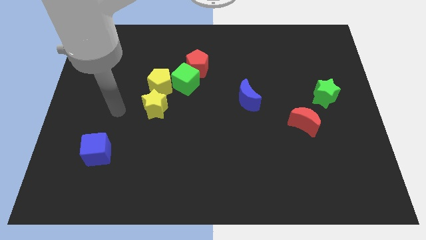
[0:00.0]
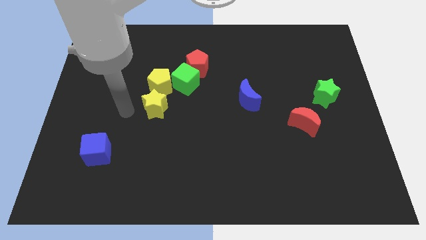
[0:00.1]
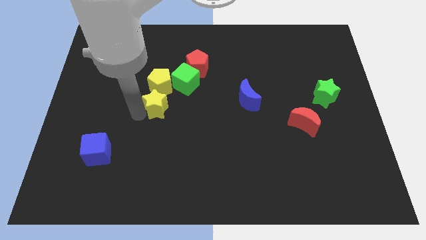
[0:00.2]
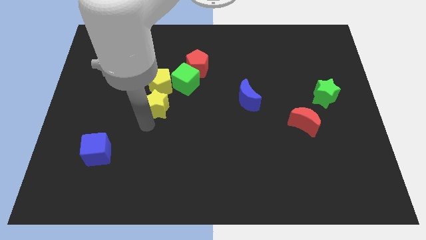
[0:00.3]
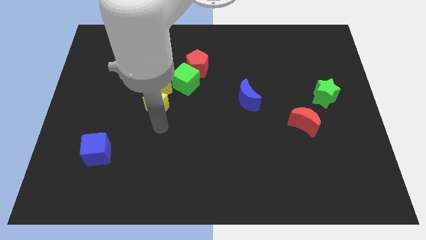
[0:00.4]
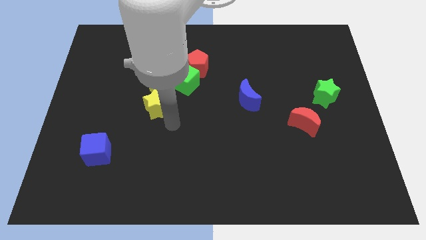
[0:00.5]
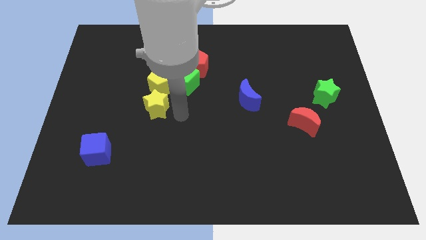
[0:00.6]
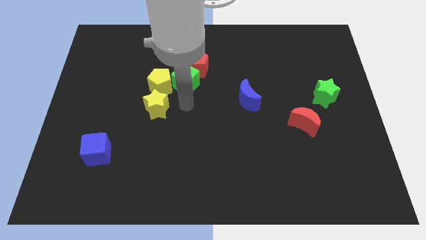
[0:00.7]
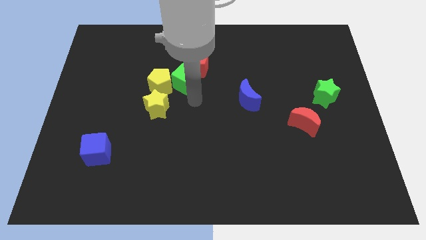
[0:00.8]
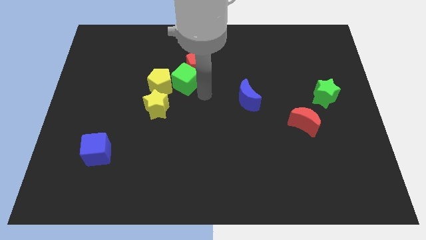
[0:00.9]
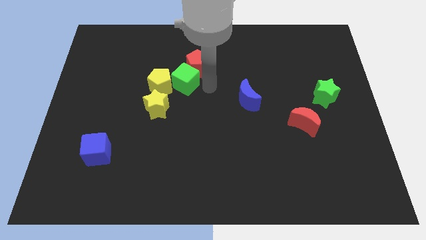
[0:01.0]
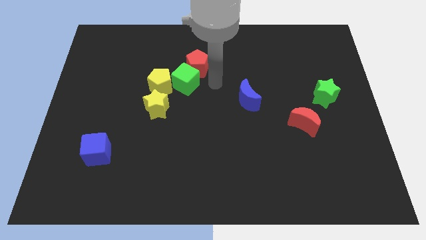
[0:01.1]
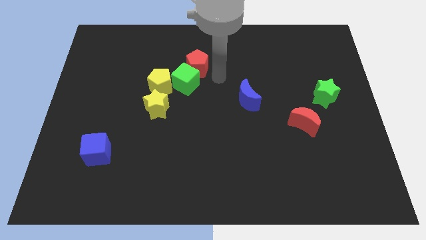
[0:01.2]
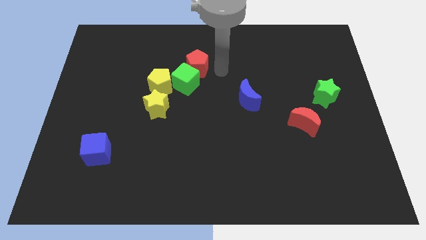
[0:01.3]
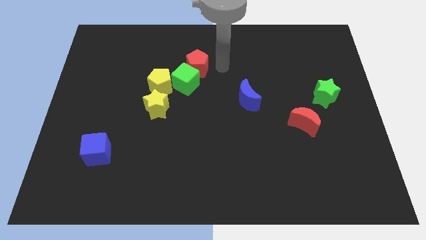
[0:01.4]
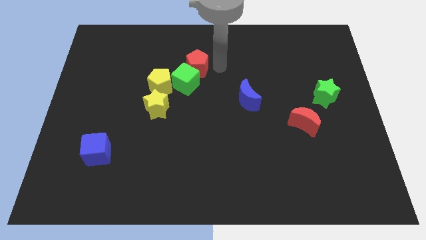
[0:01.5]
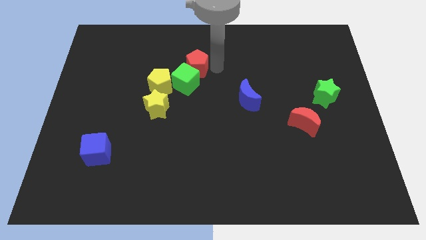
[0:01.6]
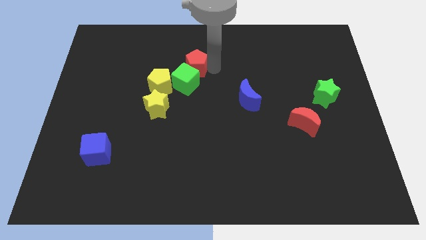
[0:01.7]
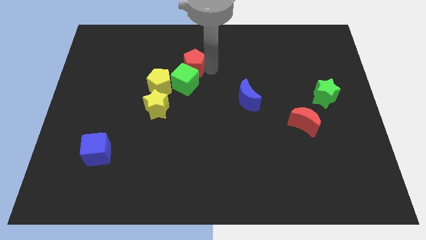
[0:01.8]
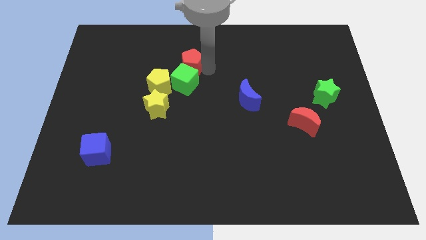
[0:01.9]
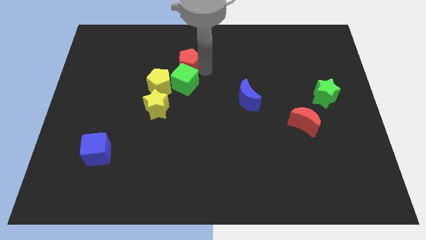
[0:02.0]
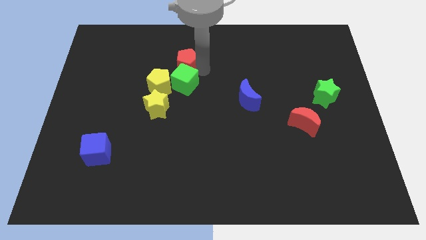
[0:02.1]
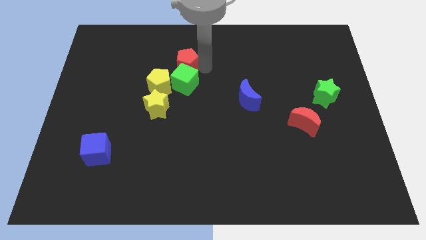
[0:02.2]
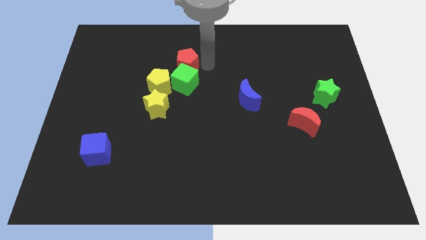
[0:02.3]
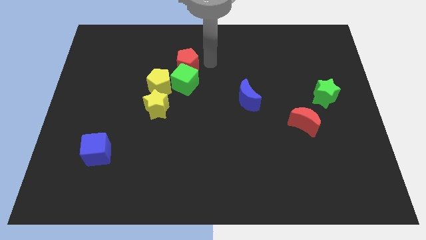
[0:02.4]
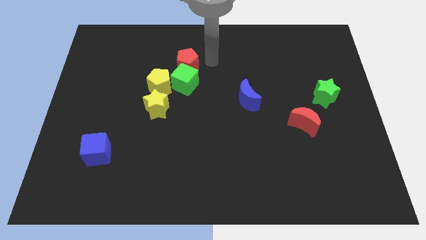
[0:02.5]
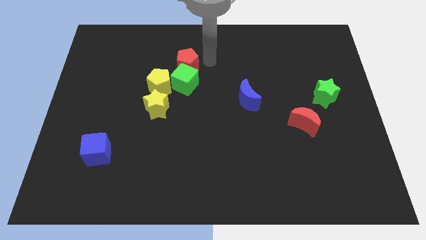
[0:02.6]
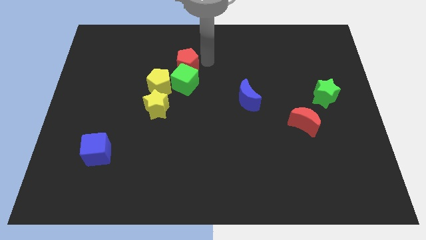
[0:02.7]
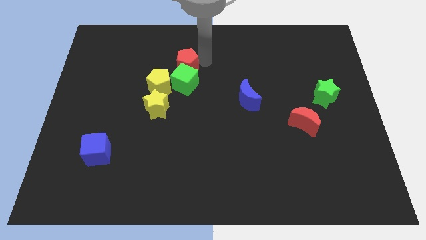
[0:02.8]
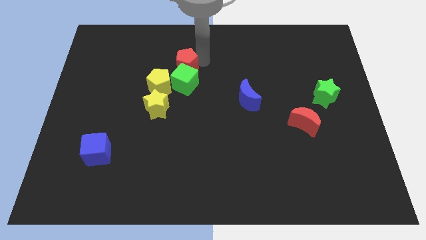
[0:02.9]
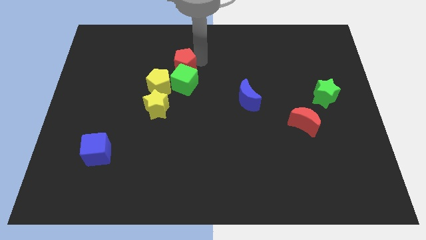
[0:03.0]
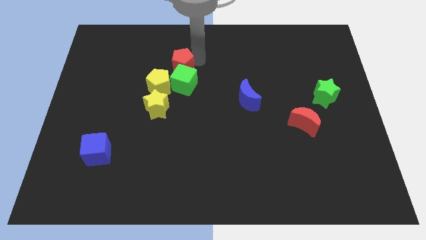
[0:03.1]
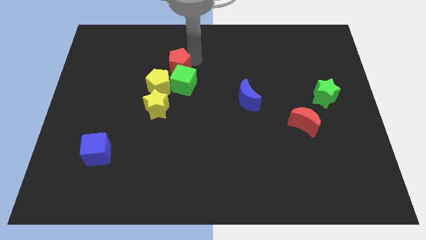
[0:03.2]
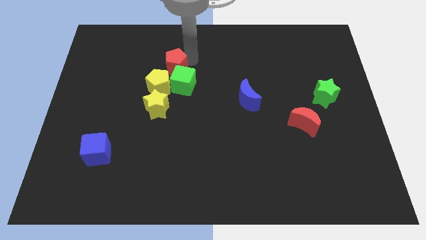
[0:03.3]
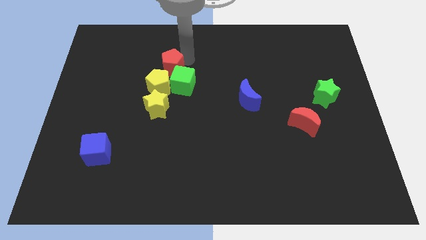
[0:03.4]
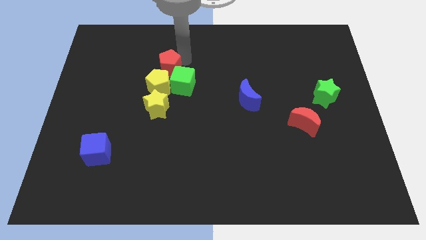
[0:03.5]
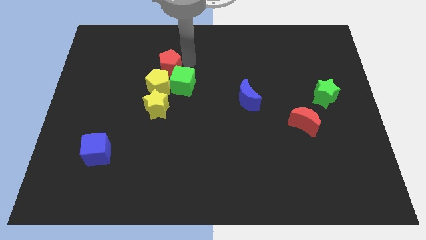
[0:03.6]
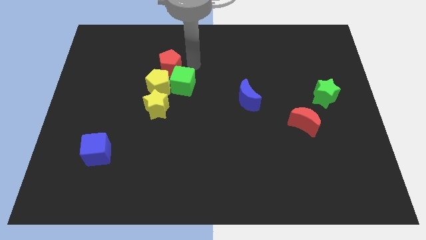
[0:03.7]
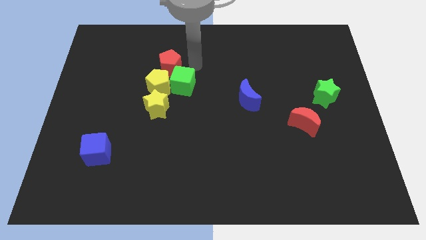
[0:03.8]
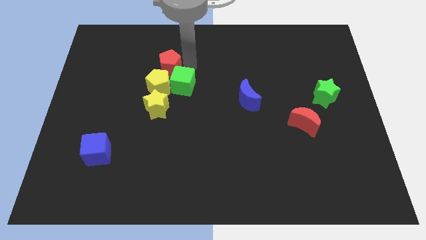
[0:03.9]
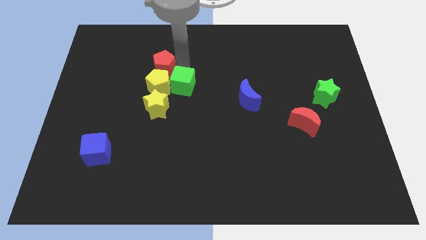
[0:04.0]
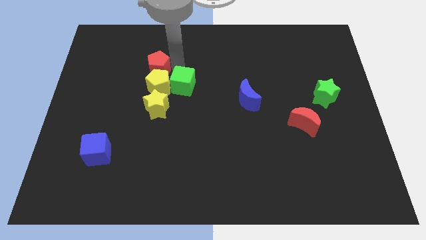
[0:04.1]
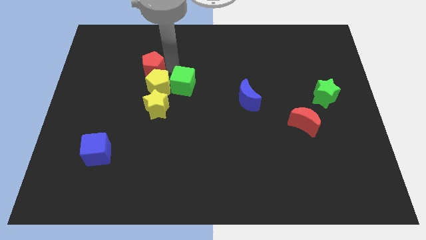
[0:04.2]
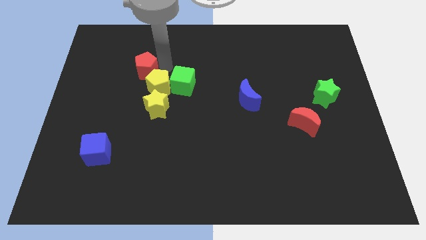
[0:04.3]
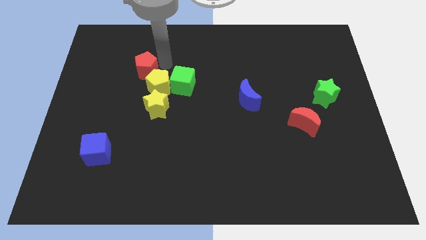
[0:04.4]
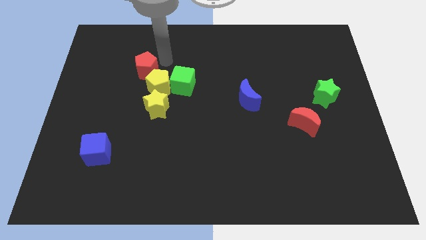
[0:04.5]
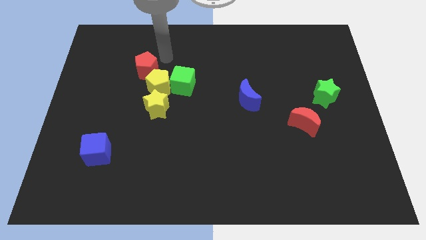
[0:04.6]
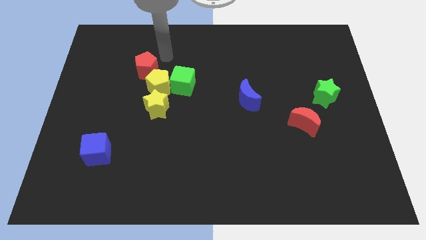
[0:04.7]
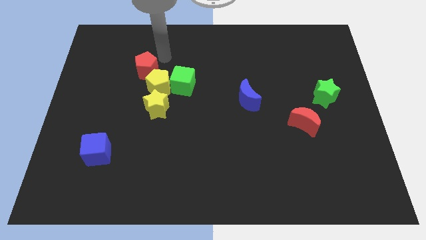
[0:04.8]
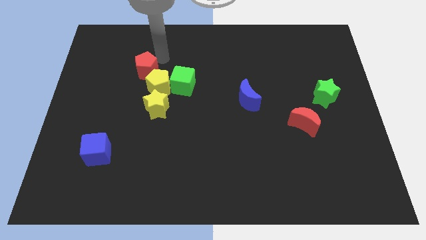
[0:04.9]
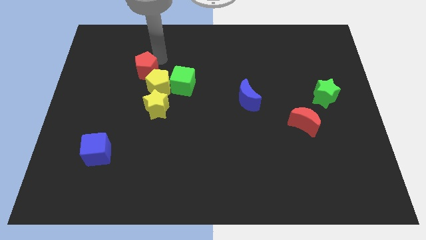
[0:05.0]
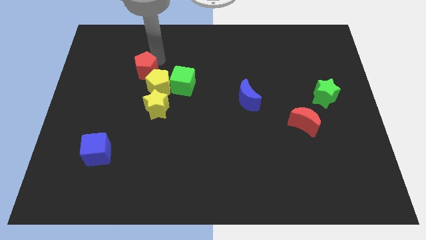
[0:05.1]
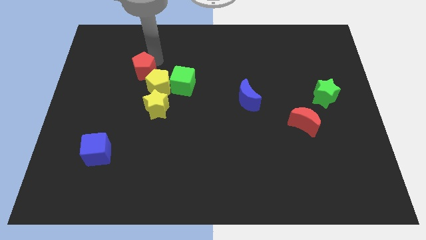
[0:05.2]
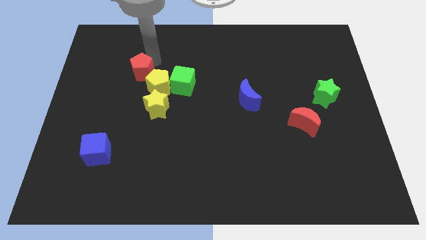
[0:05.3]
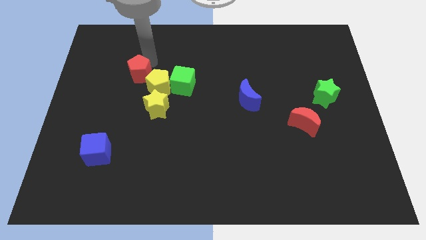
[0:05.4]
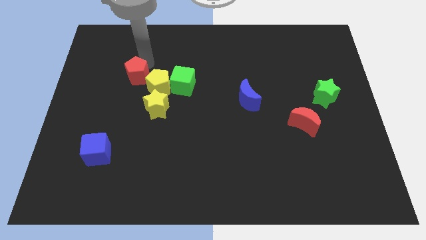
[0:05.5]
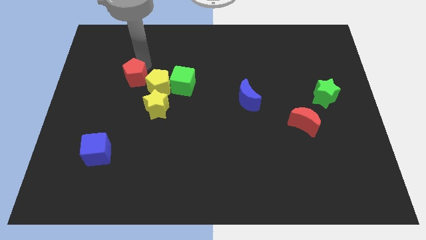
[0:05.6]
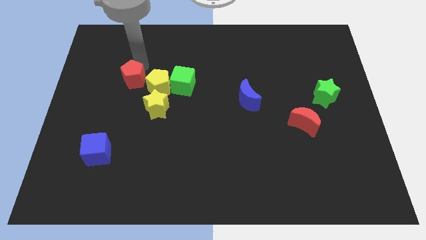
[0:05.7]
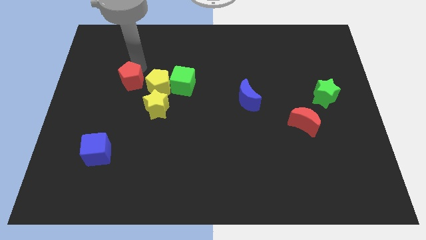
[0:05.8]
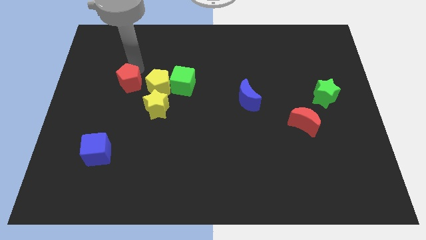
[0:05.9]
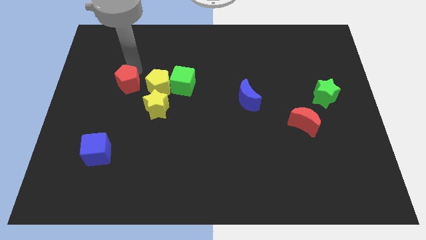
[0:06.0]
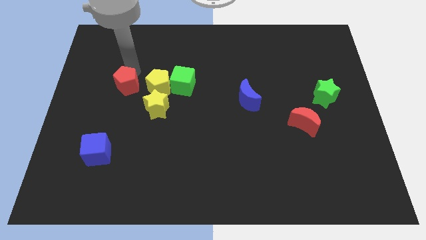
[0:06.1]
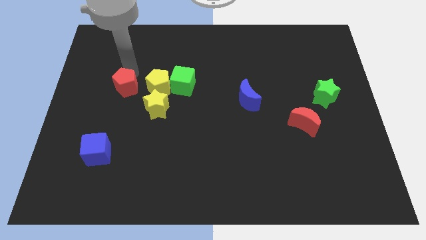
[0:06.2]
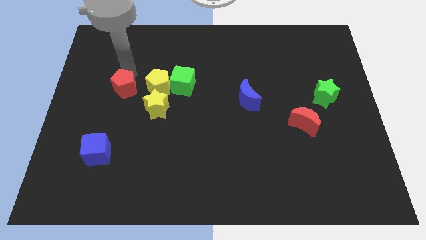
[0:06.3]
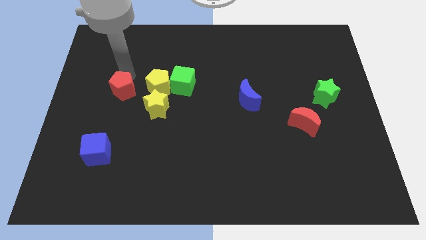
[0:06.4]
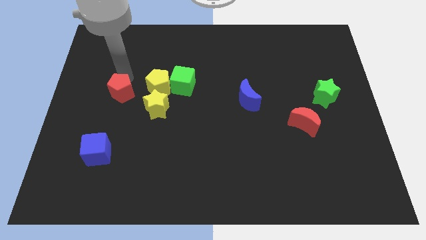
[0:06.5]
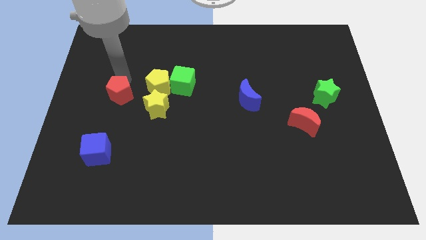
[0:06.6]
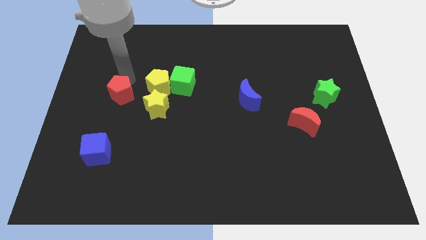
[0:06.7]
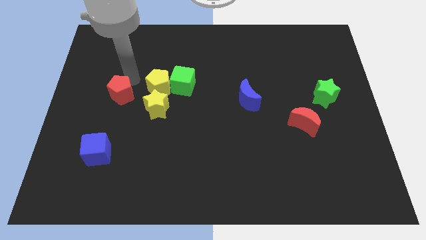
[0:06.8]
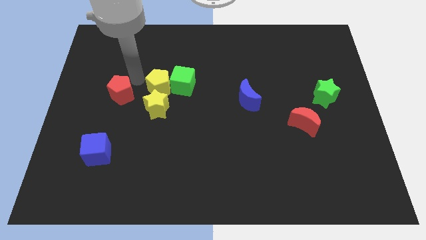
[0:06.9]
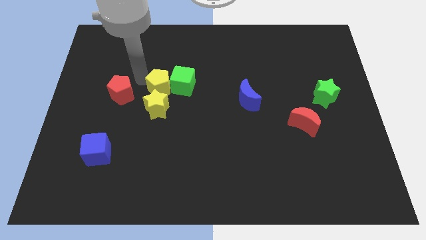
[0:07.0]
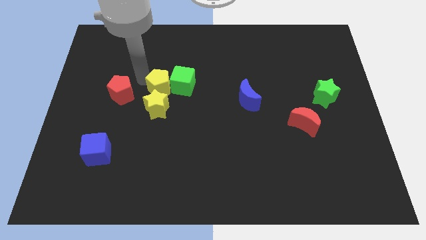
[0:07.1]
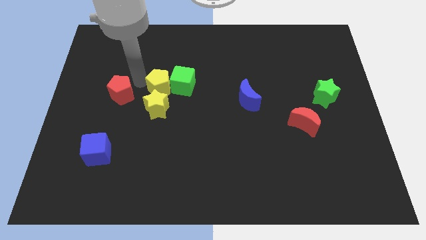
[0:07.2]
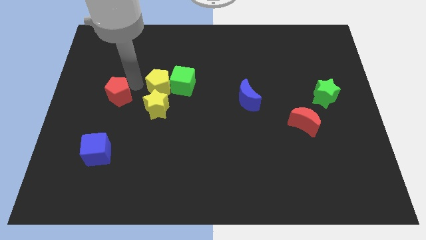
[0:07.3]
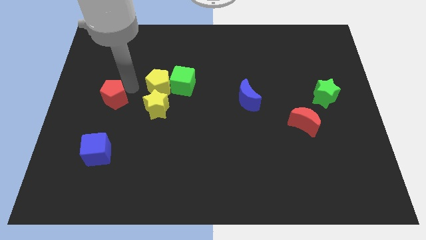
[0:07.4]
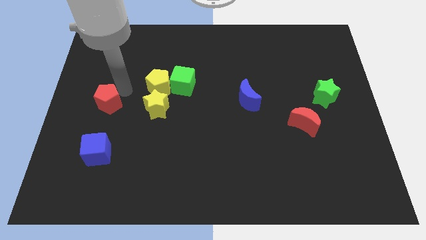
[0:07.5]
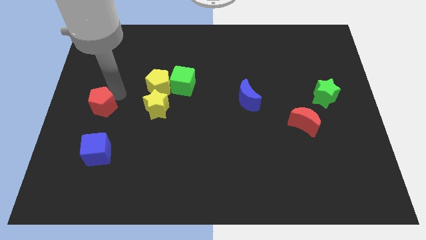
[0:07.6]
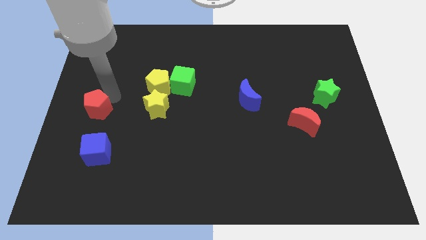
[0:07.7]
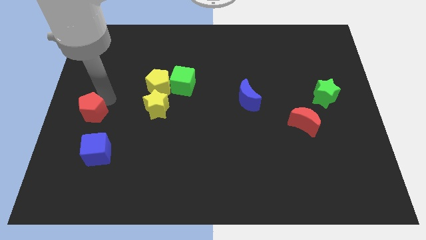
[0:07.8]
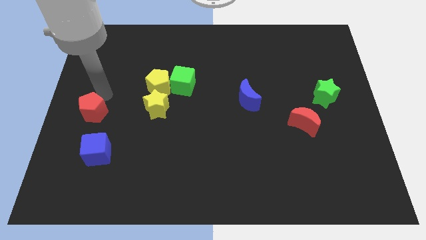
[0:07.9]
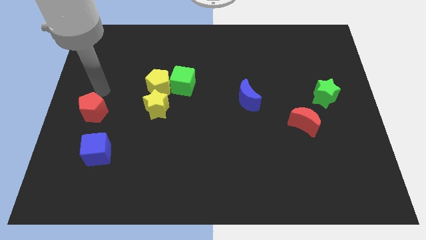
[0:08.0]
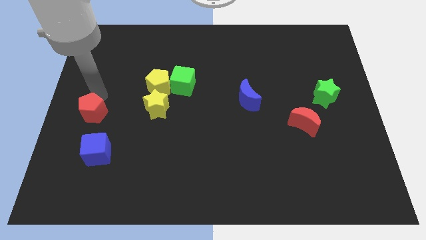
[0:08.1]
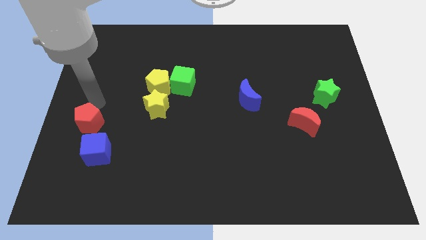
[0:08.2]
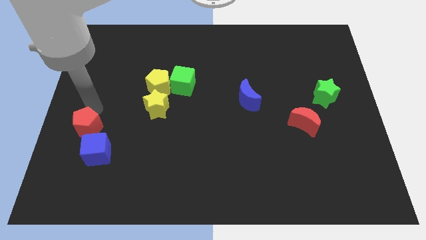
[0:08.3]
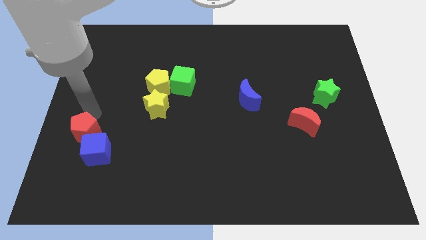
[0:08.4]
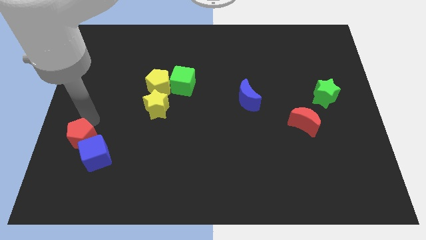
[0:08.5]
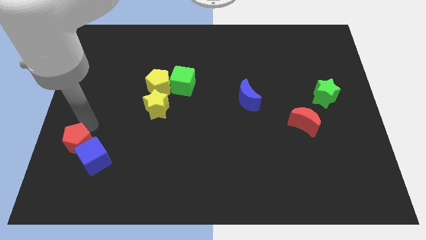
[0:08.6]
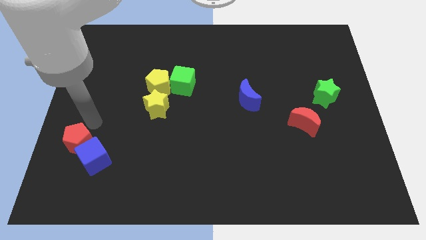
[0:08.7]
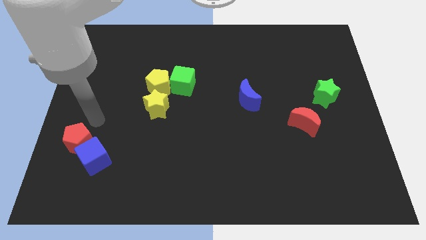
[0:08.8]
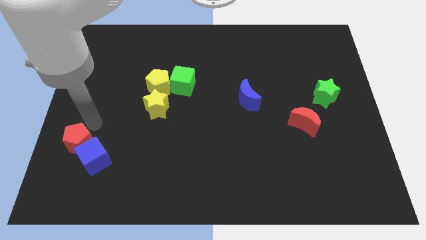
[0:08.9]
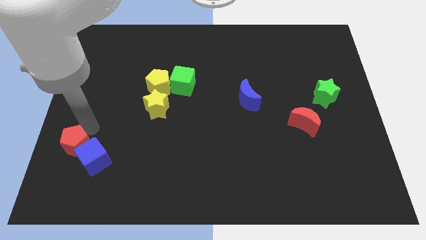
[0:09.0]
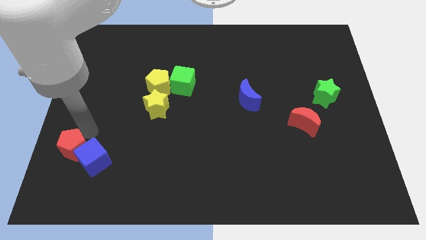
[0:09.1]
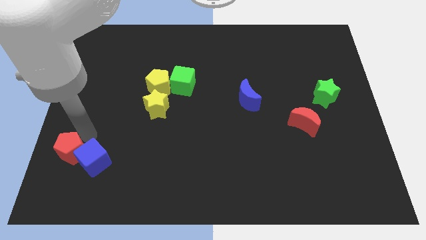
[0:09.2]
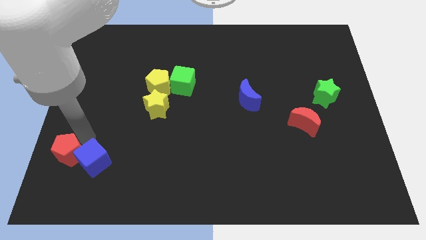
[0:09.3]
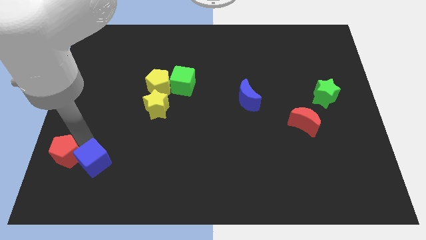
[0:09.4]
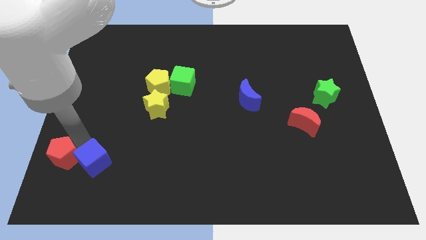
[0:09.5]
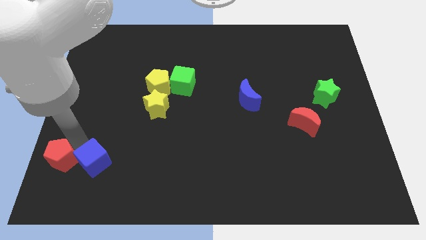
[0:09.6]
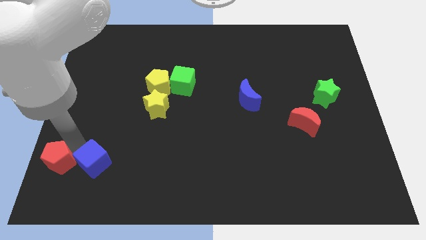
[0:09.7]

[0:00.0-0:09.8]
push the red pentagon to the bottom left
